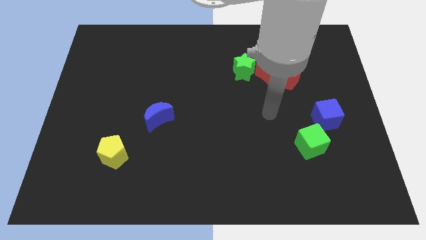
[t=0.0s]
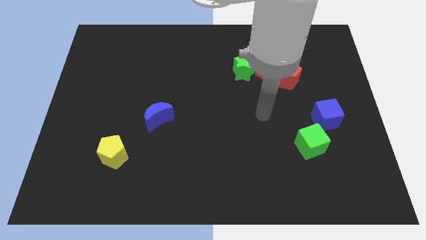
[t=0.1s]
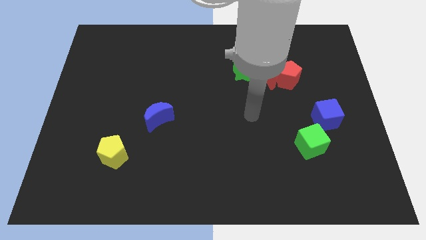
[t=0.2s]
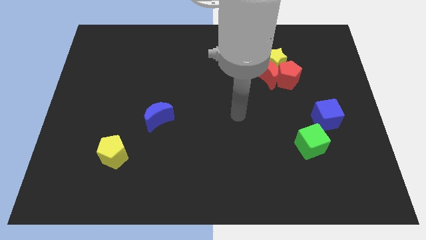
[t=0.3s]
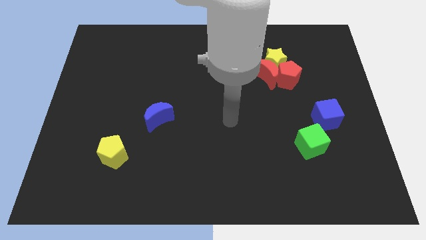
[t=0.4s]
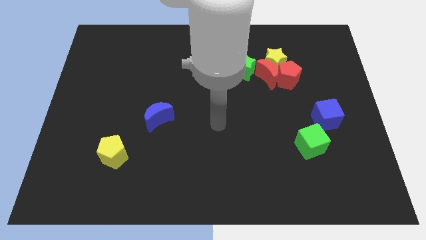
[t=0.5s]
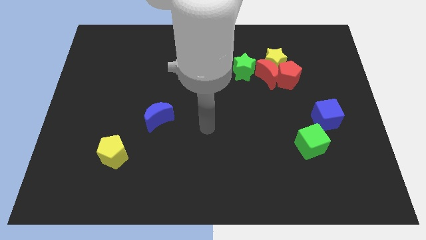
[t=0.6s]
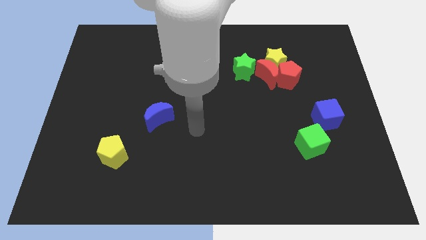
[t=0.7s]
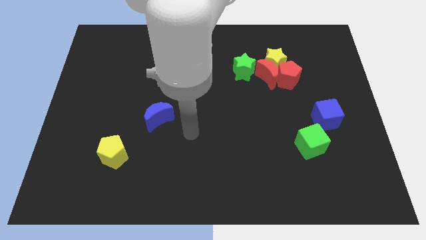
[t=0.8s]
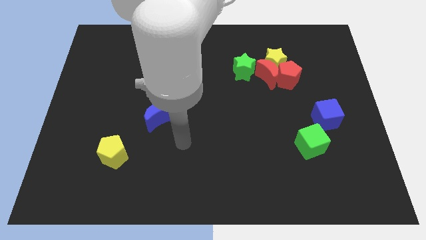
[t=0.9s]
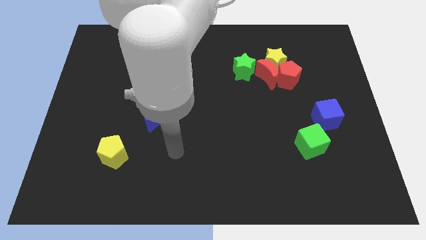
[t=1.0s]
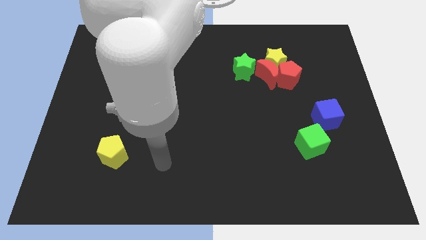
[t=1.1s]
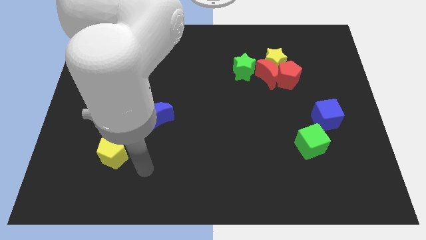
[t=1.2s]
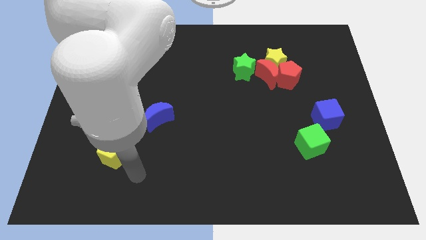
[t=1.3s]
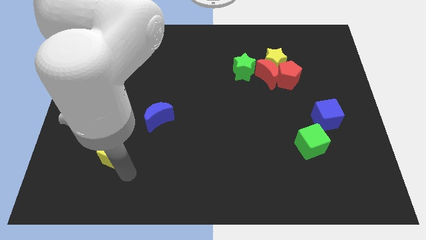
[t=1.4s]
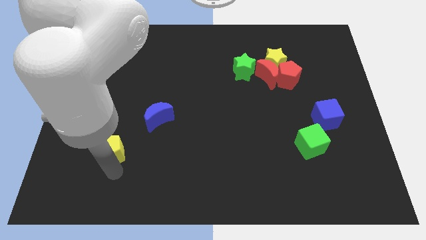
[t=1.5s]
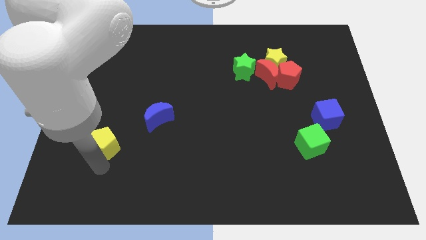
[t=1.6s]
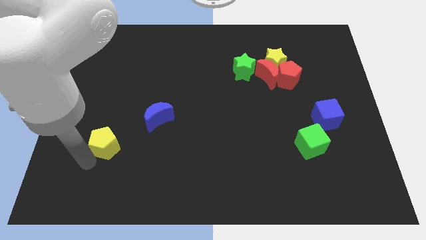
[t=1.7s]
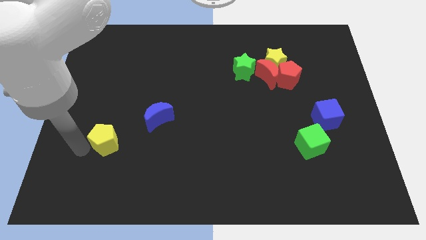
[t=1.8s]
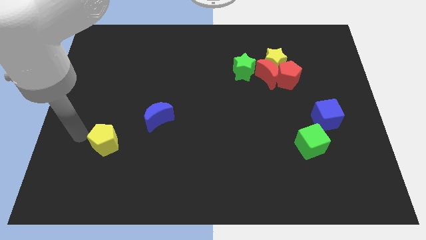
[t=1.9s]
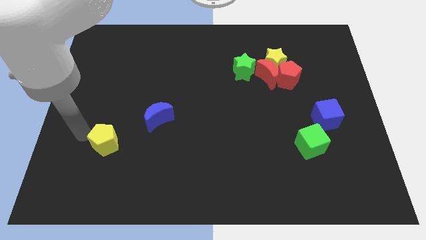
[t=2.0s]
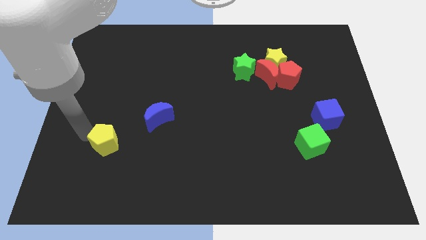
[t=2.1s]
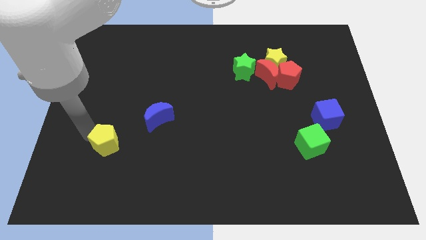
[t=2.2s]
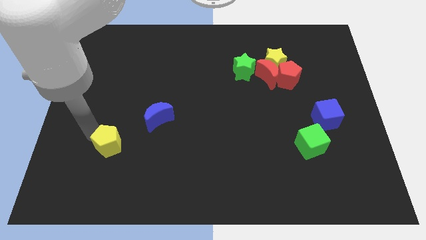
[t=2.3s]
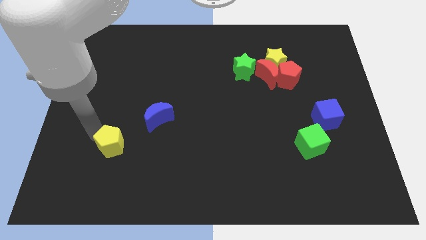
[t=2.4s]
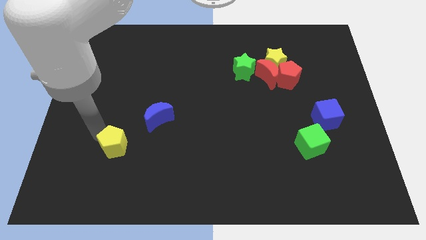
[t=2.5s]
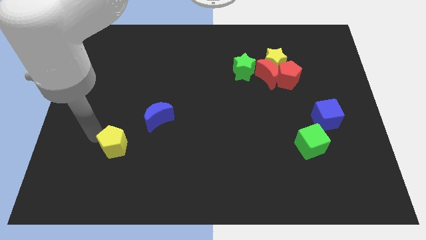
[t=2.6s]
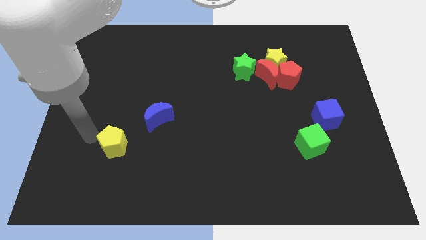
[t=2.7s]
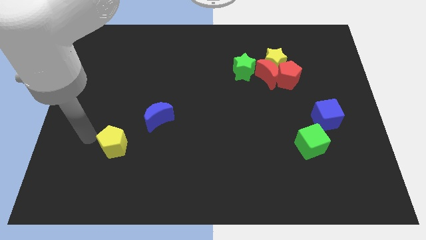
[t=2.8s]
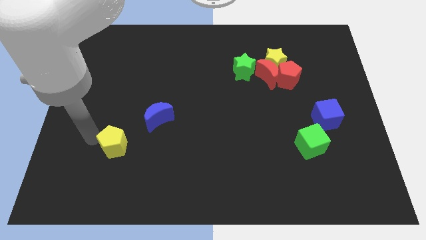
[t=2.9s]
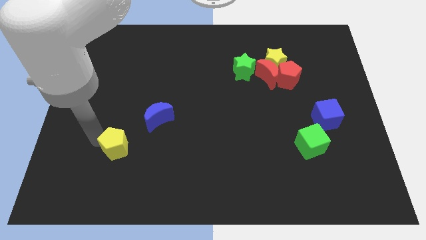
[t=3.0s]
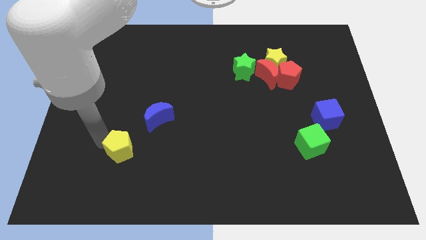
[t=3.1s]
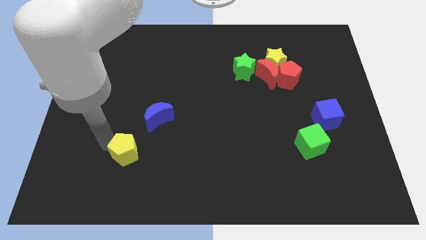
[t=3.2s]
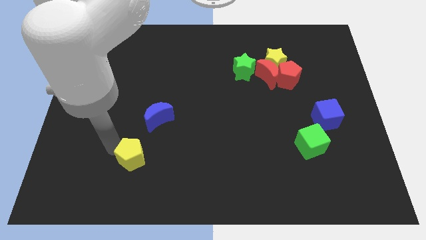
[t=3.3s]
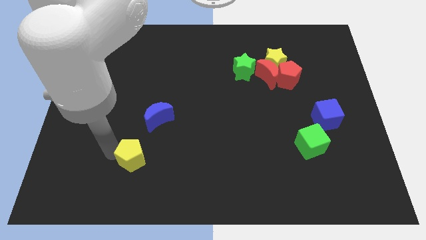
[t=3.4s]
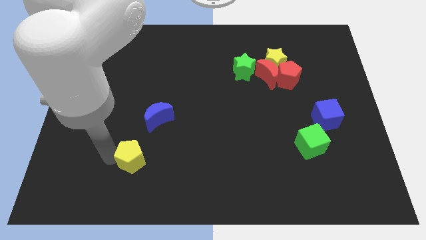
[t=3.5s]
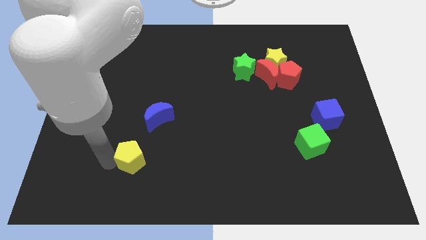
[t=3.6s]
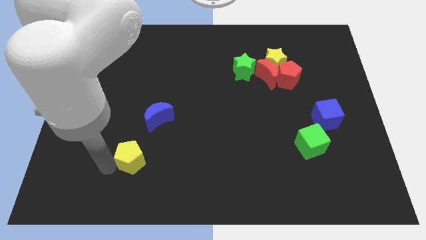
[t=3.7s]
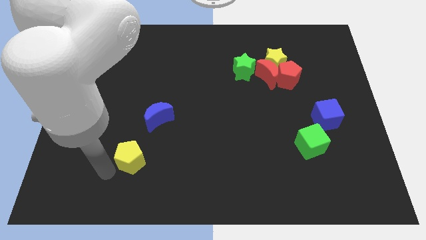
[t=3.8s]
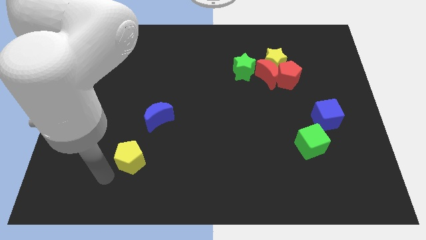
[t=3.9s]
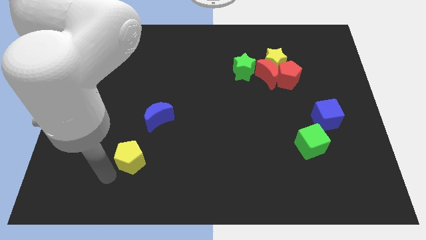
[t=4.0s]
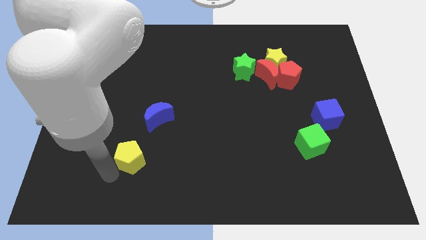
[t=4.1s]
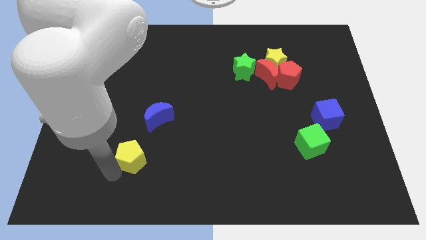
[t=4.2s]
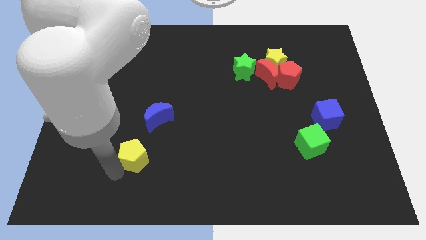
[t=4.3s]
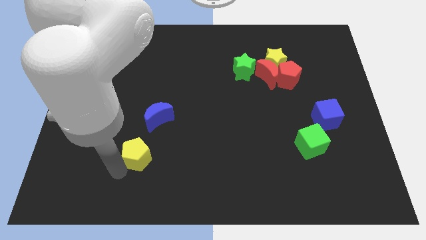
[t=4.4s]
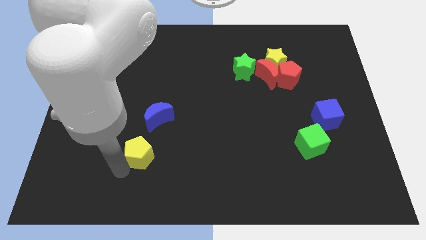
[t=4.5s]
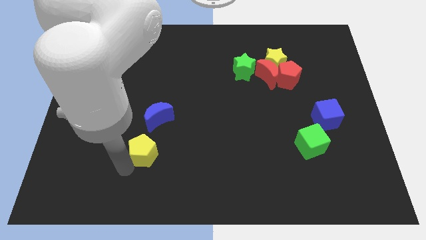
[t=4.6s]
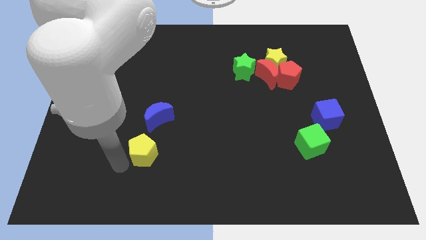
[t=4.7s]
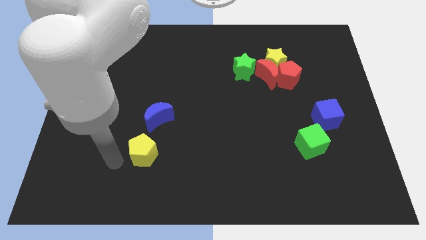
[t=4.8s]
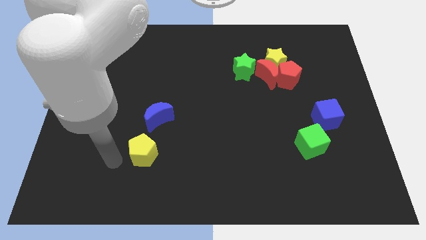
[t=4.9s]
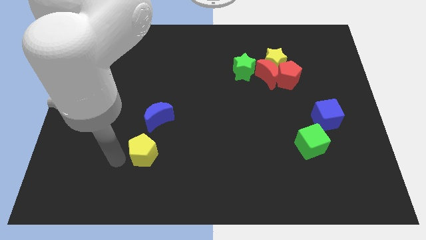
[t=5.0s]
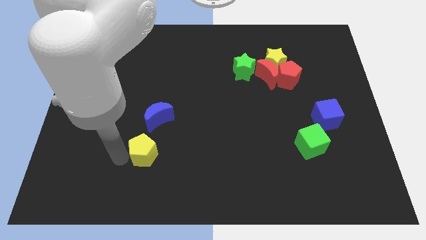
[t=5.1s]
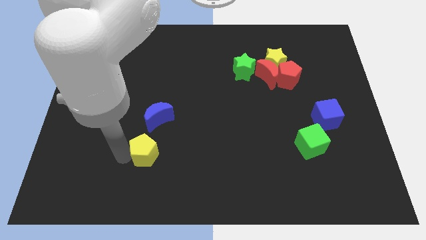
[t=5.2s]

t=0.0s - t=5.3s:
slide the yellow pentagon right a little

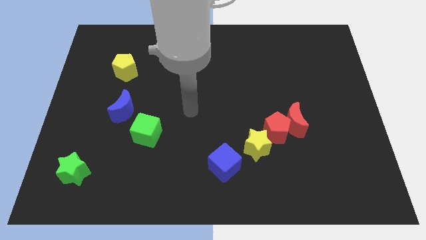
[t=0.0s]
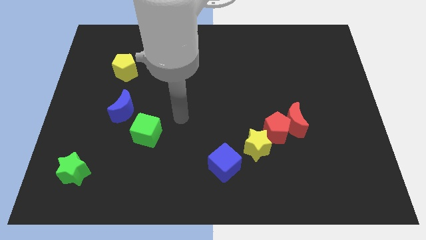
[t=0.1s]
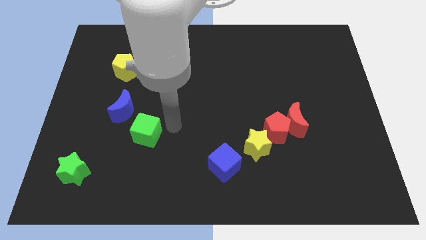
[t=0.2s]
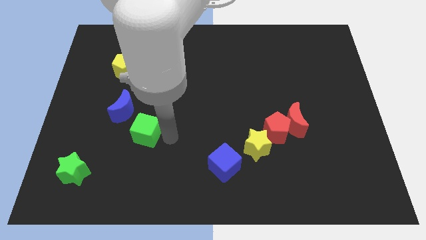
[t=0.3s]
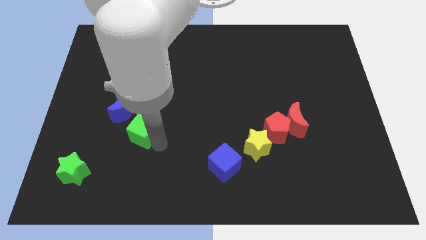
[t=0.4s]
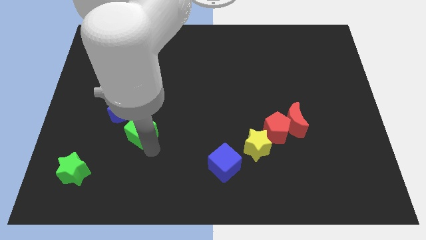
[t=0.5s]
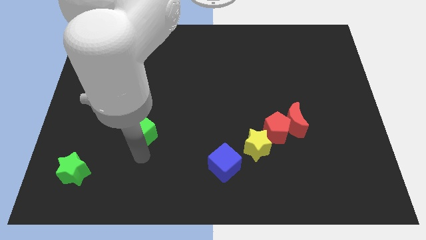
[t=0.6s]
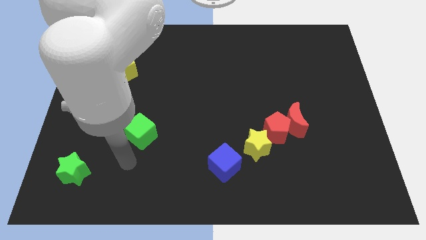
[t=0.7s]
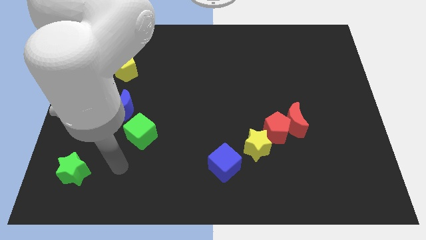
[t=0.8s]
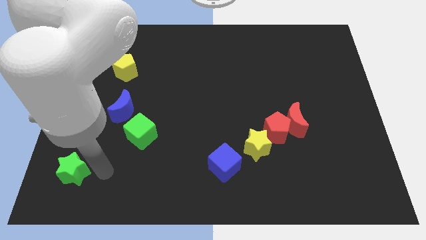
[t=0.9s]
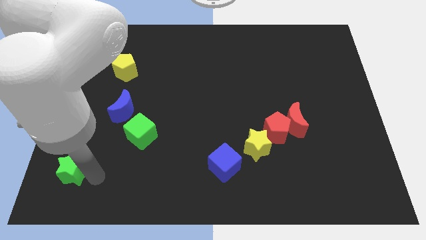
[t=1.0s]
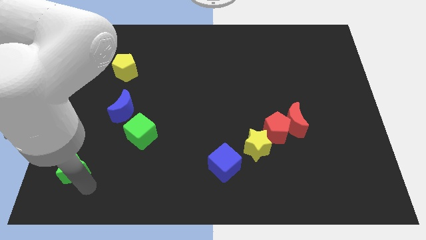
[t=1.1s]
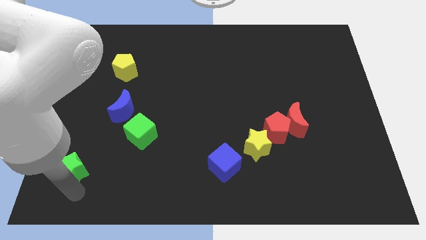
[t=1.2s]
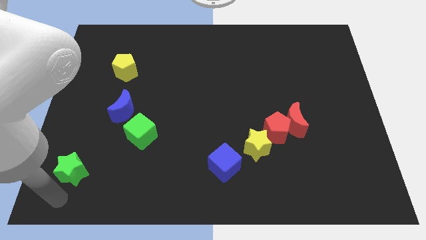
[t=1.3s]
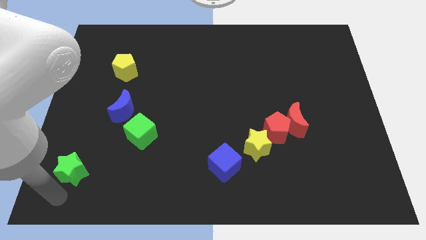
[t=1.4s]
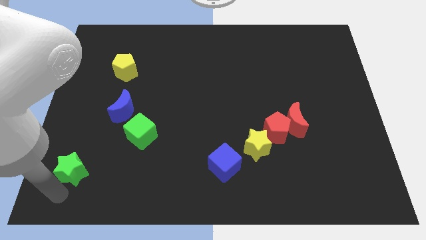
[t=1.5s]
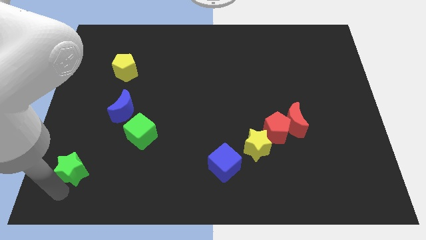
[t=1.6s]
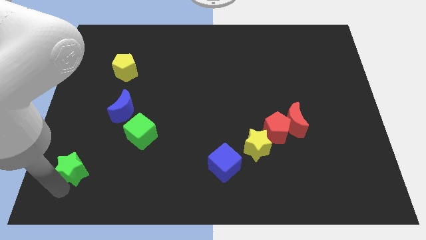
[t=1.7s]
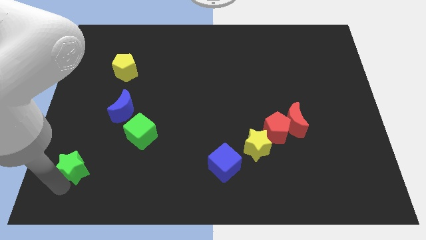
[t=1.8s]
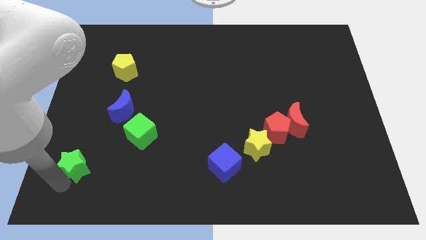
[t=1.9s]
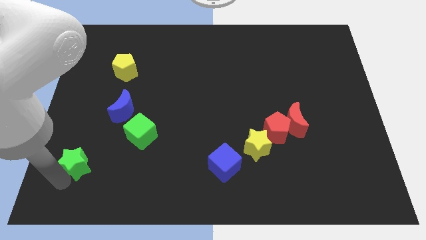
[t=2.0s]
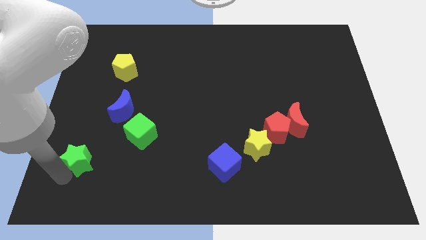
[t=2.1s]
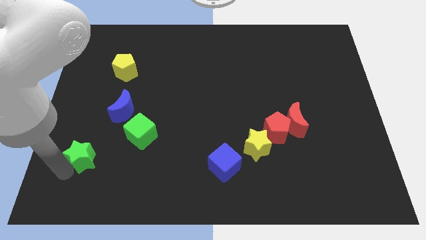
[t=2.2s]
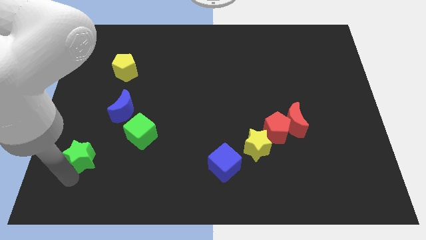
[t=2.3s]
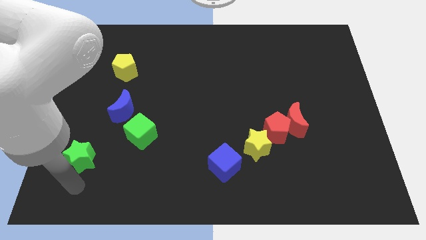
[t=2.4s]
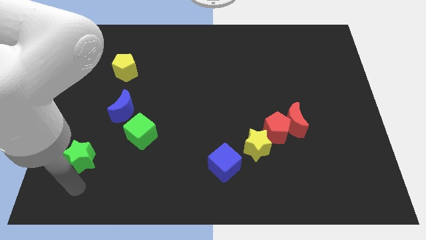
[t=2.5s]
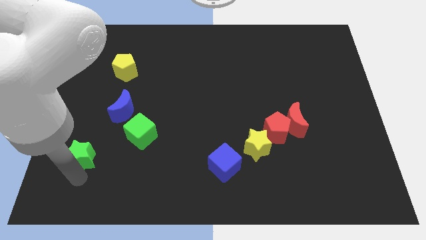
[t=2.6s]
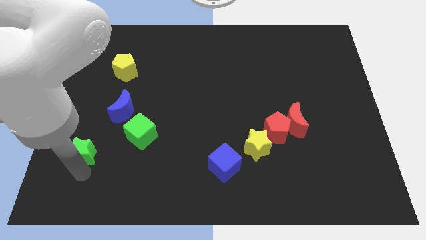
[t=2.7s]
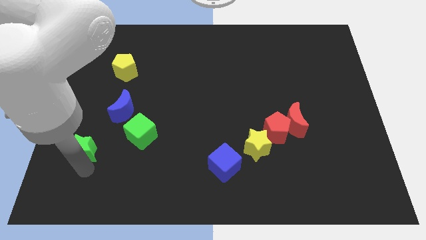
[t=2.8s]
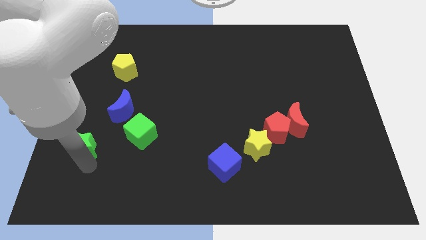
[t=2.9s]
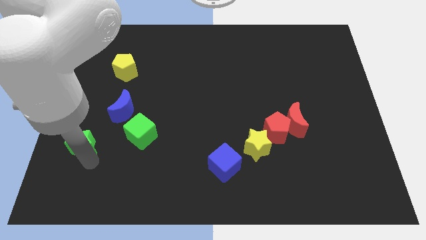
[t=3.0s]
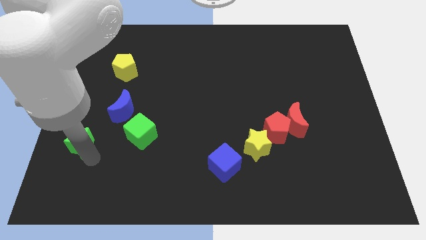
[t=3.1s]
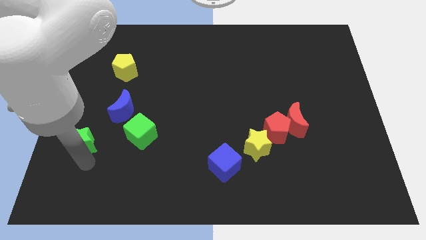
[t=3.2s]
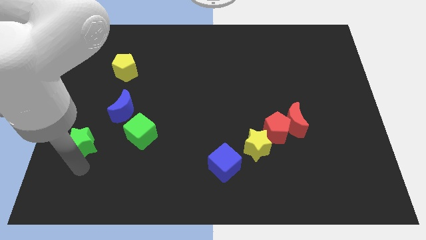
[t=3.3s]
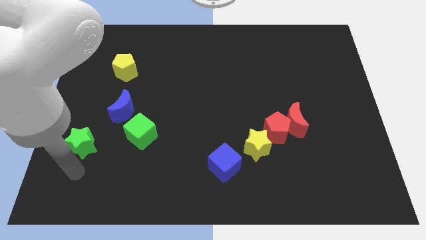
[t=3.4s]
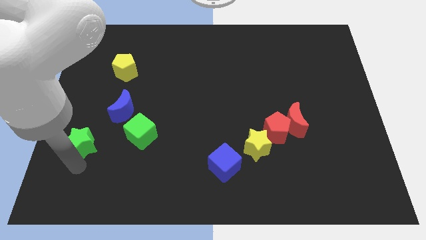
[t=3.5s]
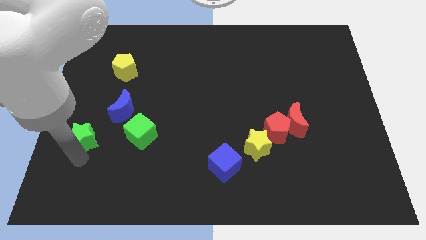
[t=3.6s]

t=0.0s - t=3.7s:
slightly move the green star upwards
